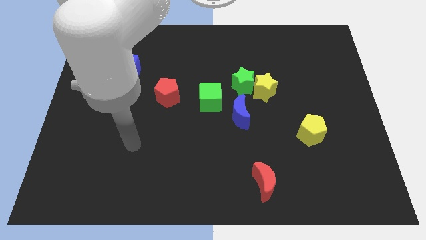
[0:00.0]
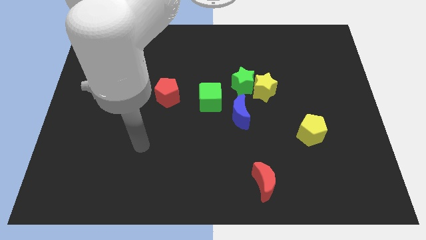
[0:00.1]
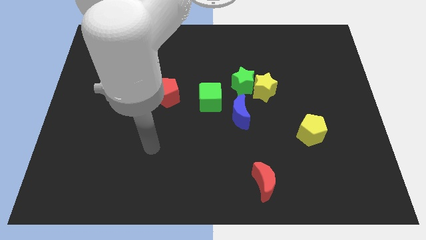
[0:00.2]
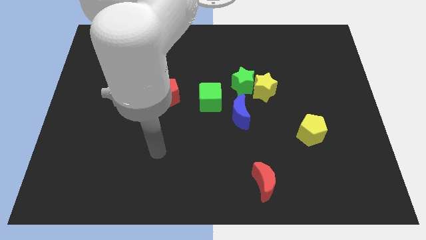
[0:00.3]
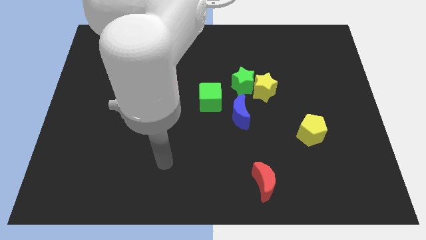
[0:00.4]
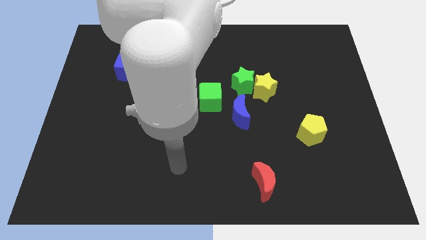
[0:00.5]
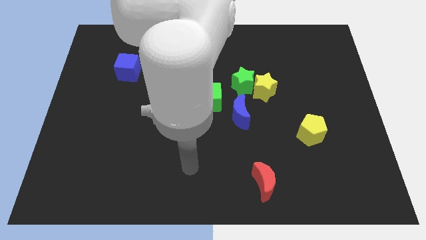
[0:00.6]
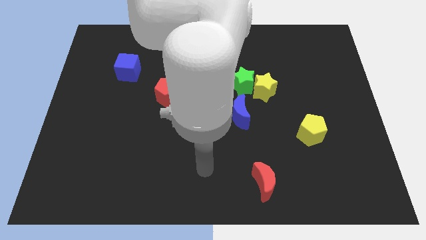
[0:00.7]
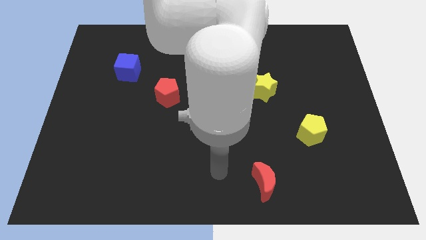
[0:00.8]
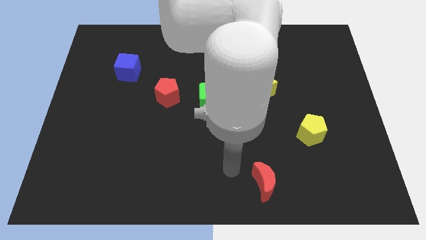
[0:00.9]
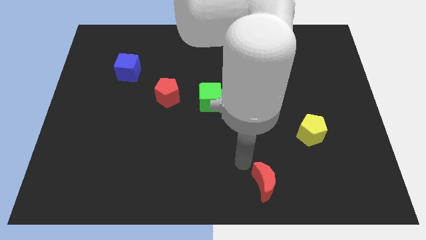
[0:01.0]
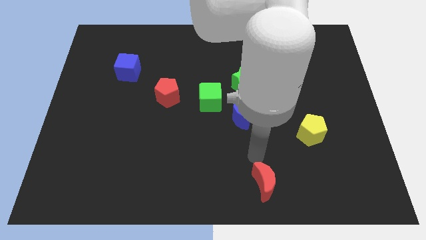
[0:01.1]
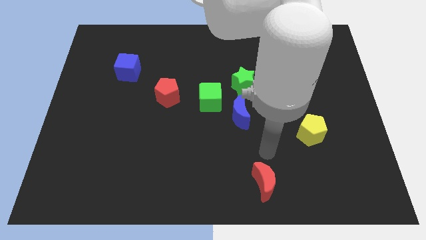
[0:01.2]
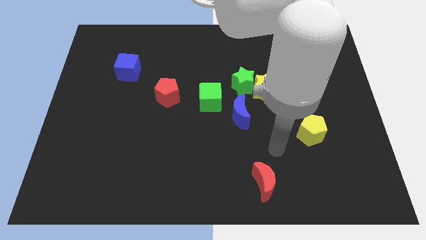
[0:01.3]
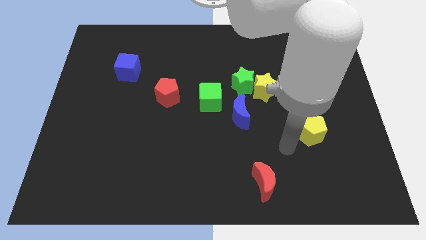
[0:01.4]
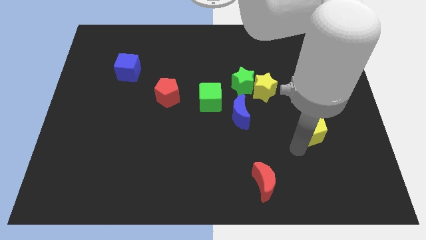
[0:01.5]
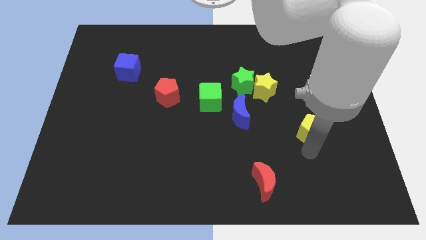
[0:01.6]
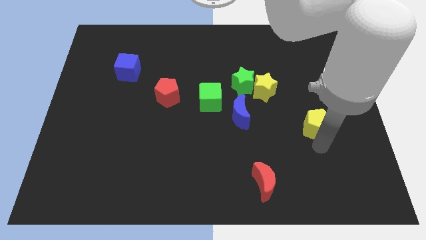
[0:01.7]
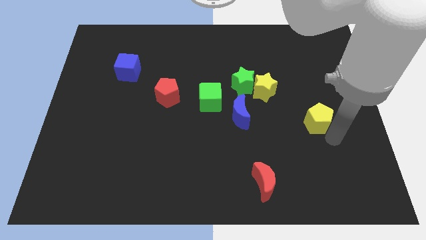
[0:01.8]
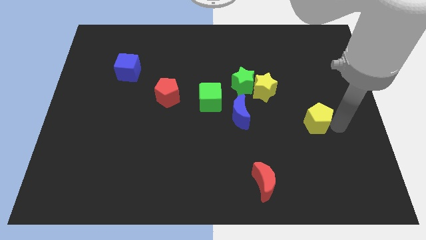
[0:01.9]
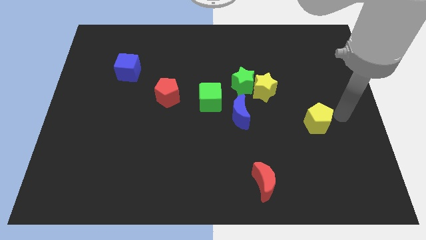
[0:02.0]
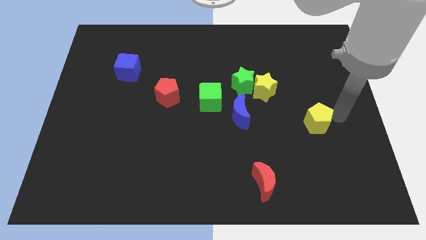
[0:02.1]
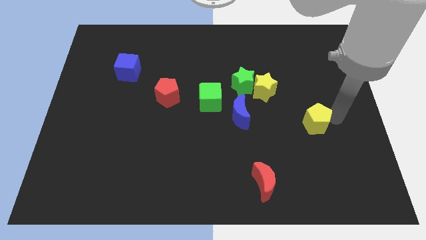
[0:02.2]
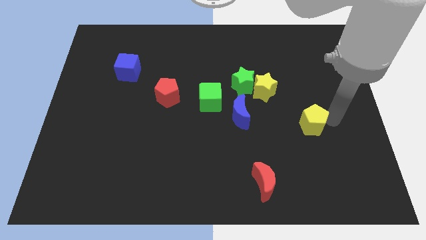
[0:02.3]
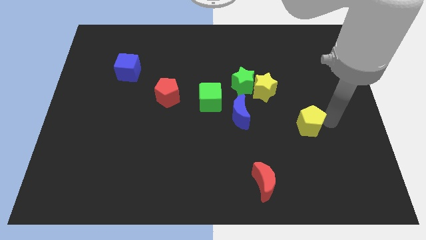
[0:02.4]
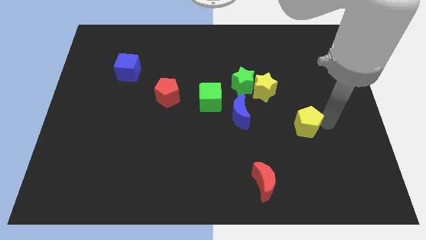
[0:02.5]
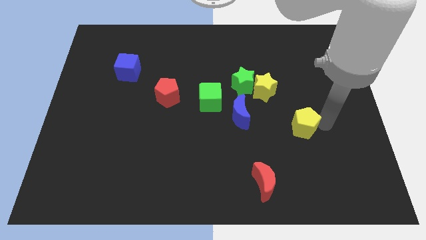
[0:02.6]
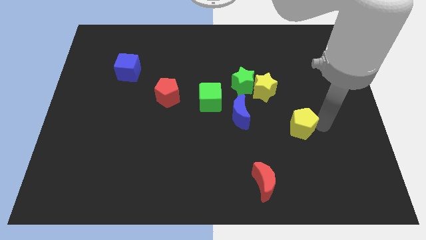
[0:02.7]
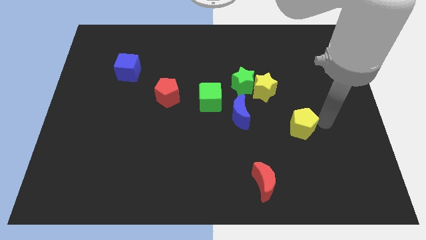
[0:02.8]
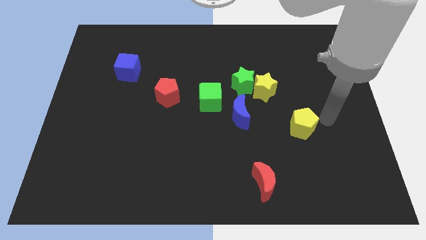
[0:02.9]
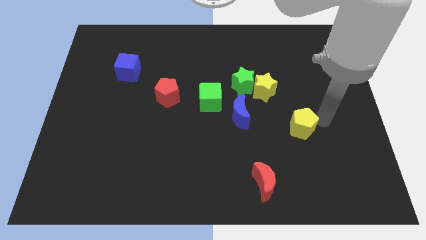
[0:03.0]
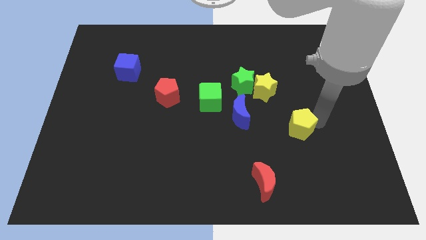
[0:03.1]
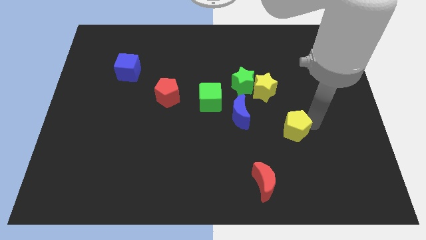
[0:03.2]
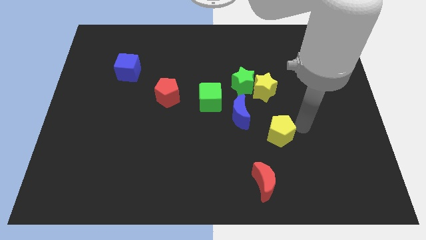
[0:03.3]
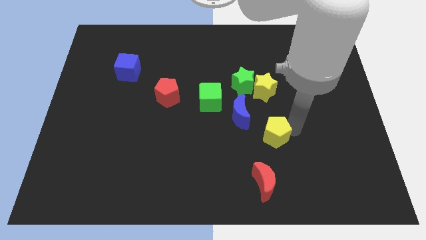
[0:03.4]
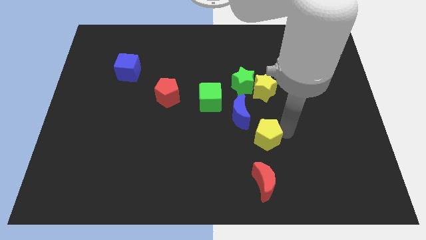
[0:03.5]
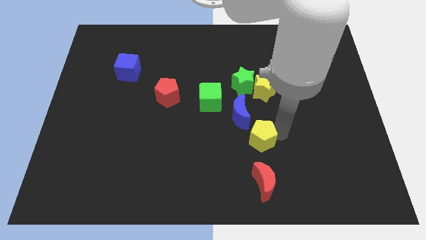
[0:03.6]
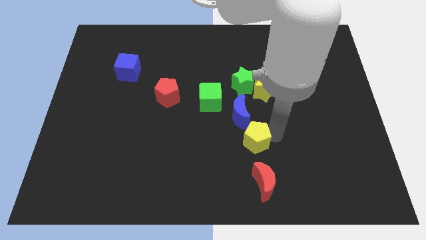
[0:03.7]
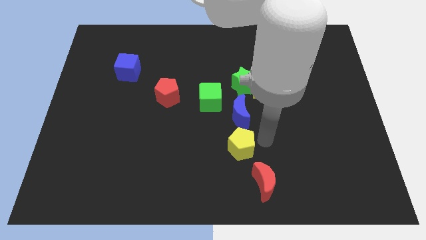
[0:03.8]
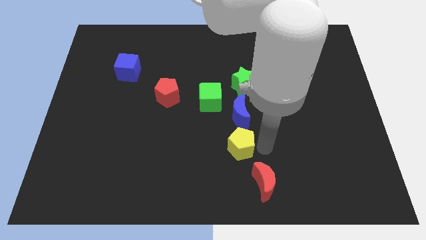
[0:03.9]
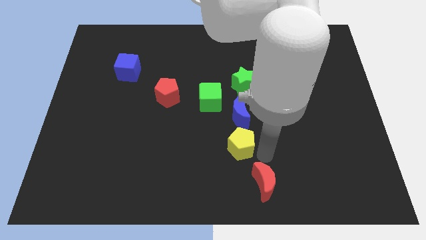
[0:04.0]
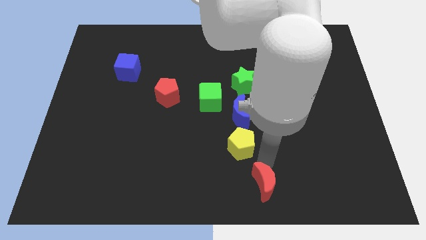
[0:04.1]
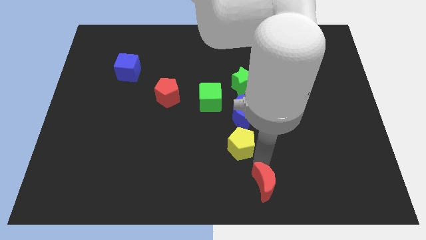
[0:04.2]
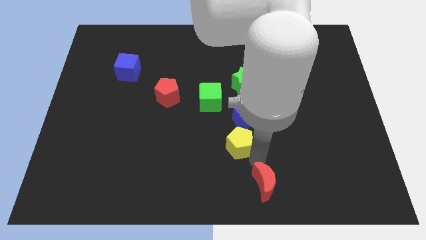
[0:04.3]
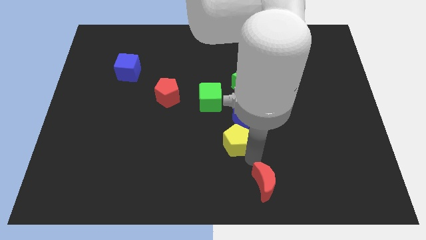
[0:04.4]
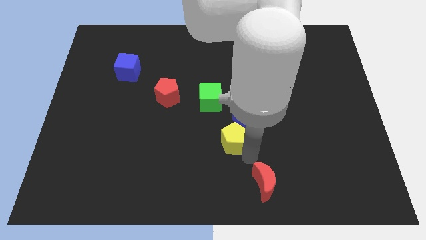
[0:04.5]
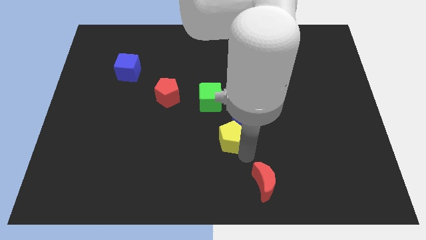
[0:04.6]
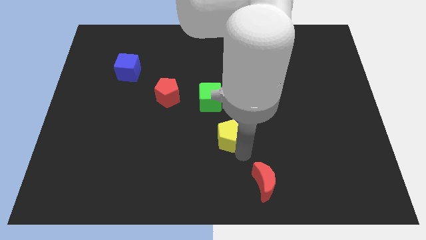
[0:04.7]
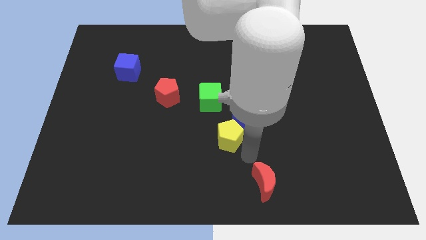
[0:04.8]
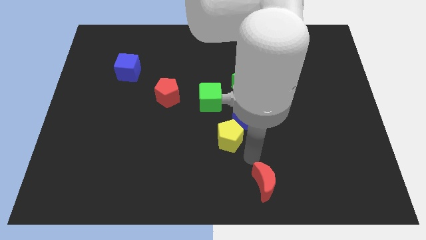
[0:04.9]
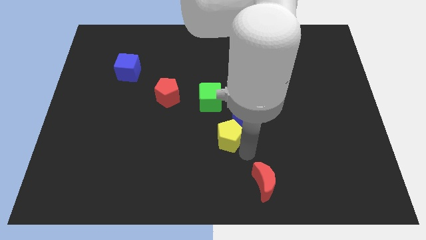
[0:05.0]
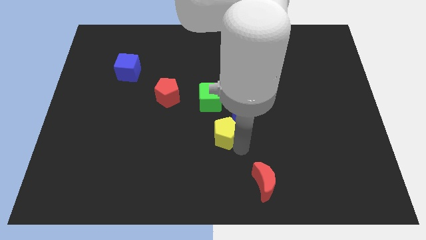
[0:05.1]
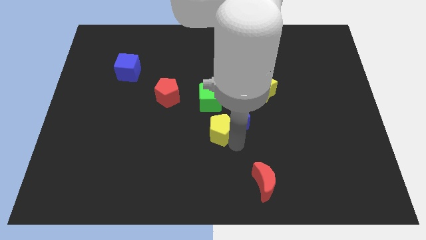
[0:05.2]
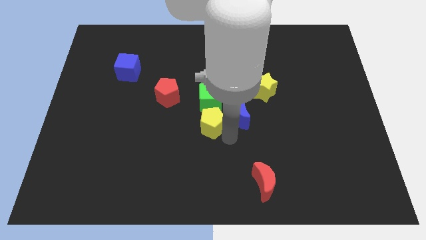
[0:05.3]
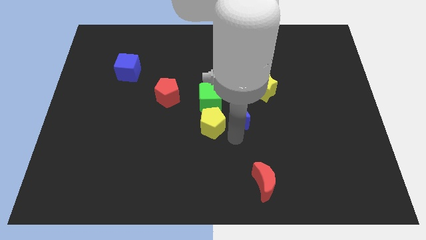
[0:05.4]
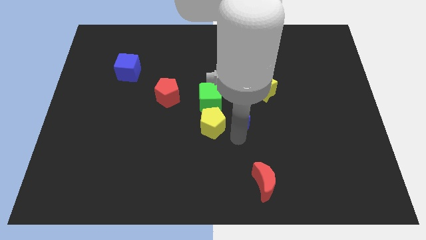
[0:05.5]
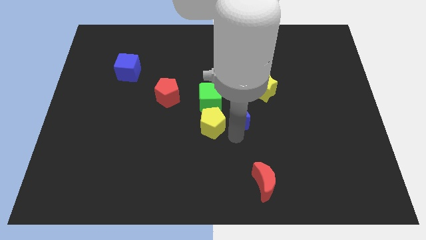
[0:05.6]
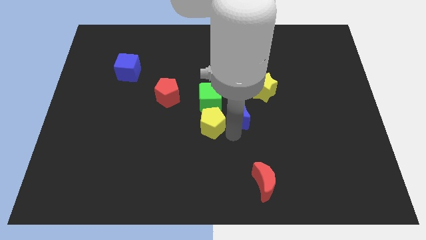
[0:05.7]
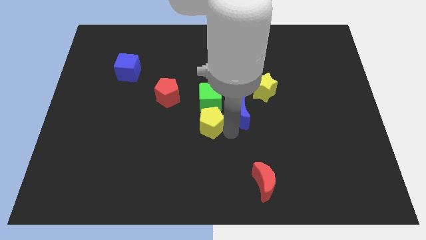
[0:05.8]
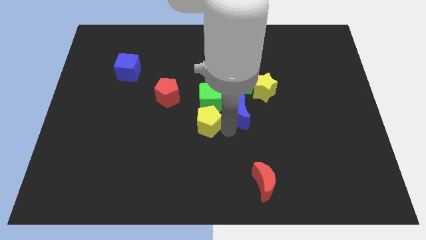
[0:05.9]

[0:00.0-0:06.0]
put the yellow pentagon diagonally down and to the right of the red pentagon

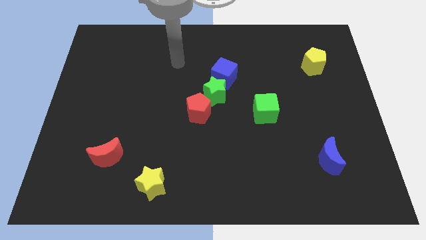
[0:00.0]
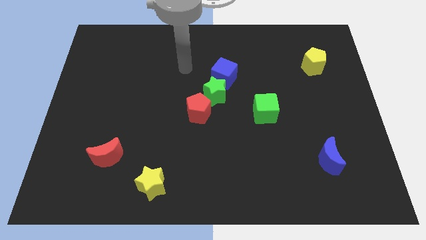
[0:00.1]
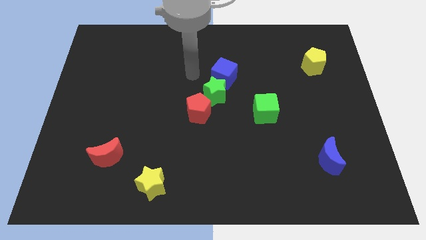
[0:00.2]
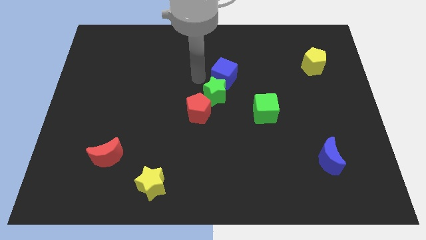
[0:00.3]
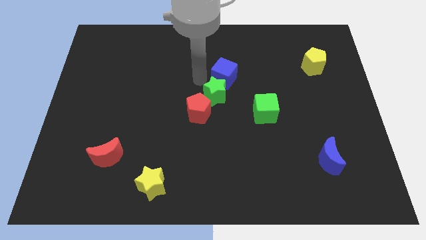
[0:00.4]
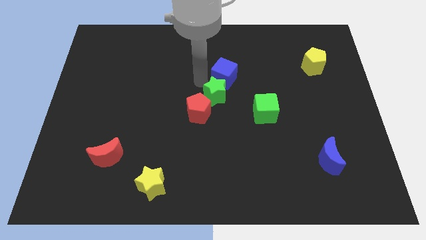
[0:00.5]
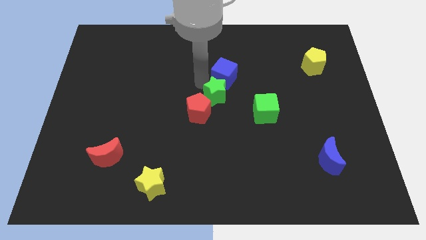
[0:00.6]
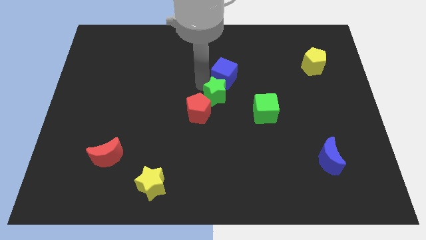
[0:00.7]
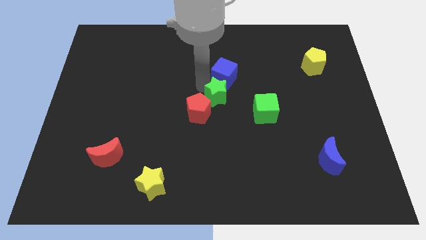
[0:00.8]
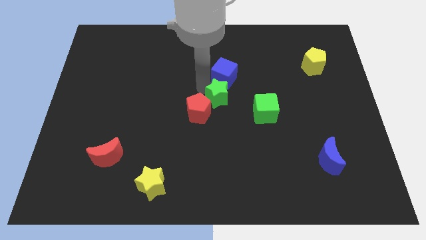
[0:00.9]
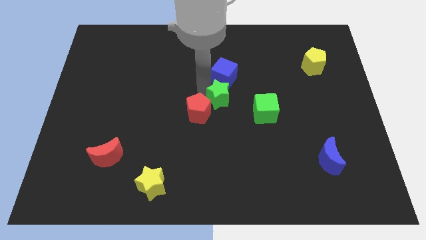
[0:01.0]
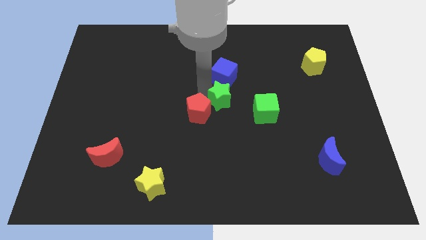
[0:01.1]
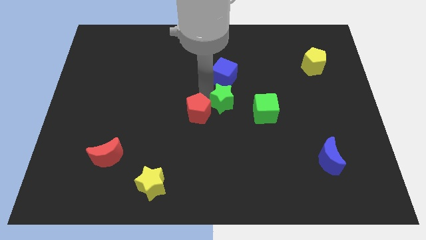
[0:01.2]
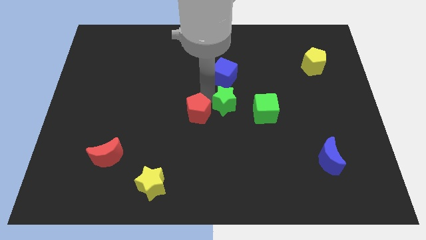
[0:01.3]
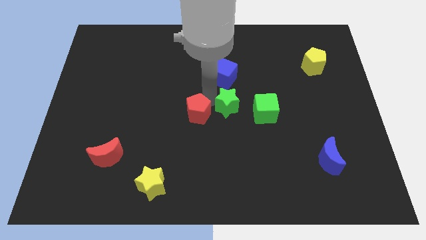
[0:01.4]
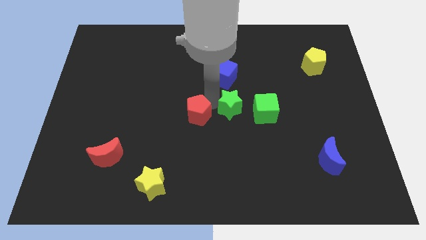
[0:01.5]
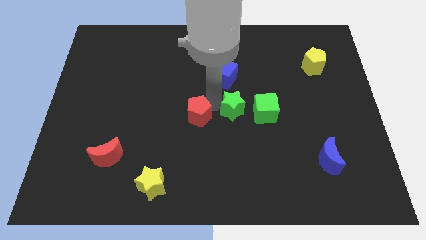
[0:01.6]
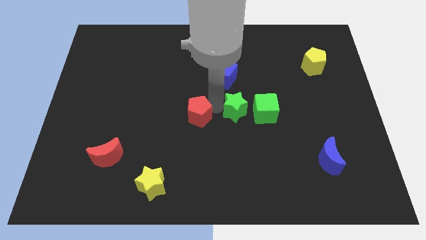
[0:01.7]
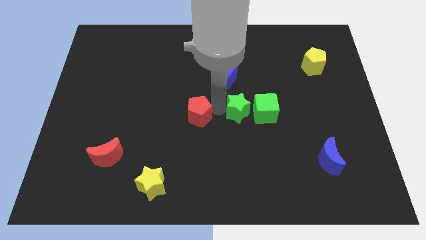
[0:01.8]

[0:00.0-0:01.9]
push the green star to the bottom left of the green cube
